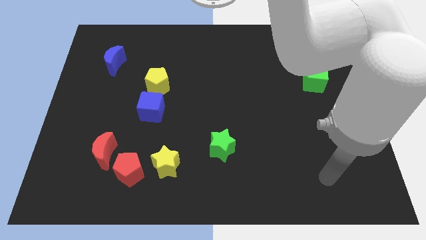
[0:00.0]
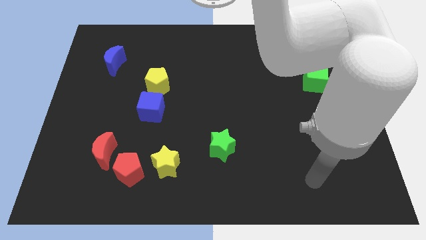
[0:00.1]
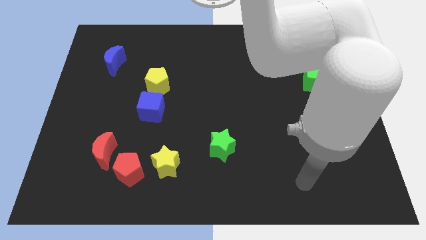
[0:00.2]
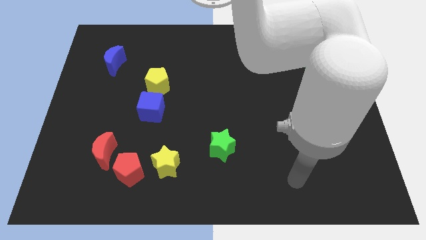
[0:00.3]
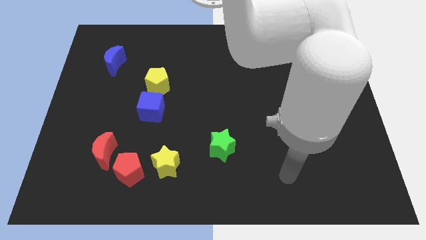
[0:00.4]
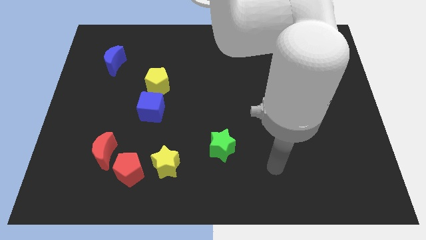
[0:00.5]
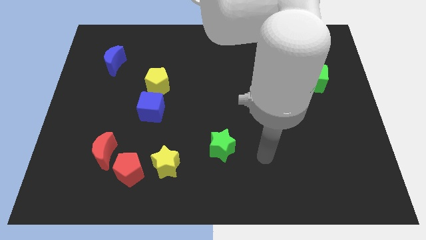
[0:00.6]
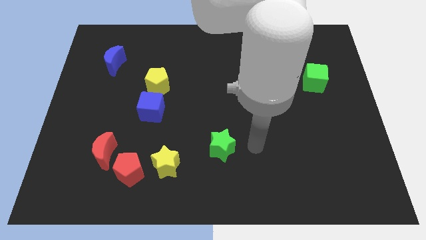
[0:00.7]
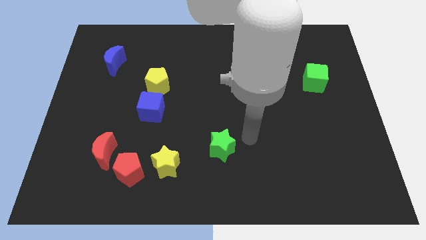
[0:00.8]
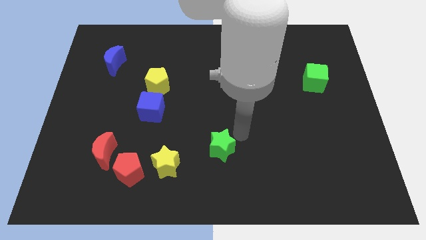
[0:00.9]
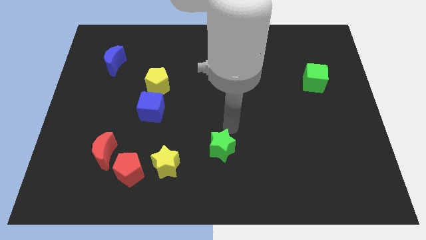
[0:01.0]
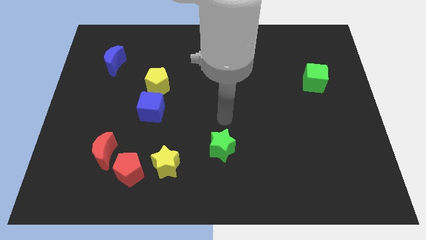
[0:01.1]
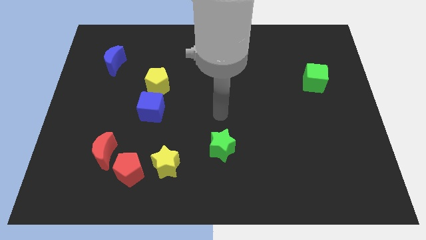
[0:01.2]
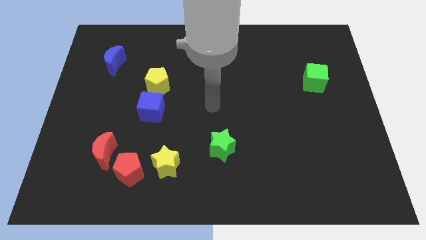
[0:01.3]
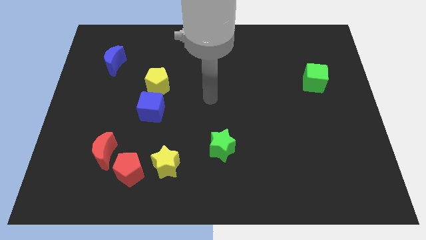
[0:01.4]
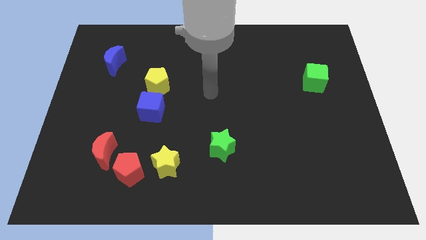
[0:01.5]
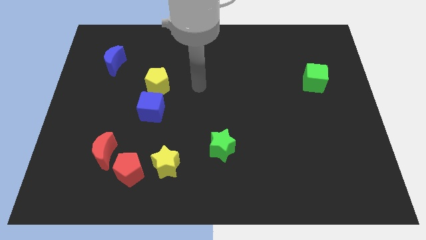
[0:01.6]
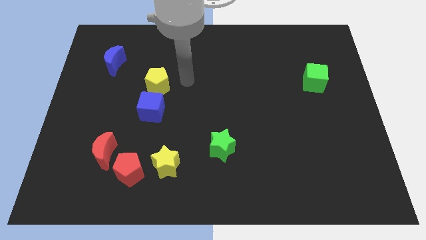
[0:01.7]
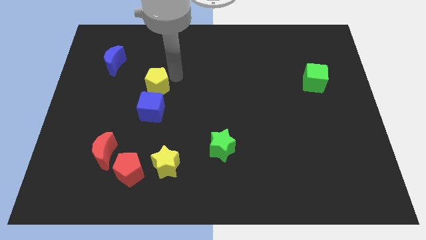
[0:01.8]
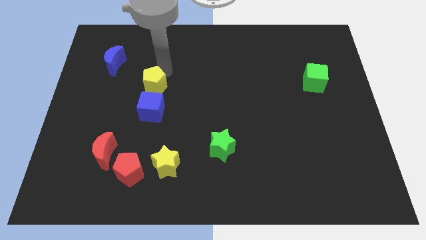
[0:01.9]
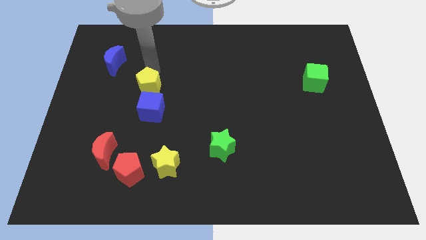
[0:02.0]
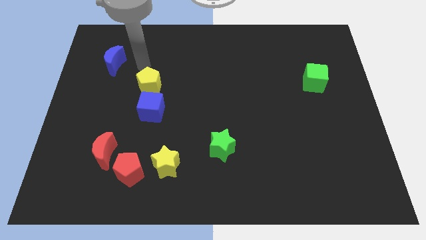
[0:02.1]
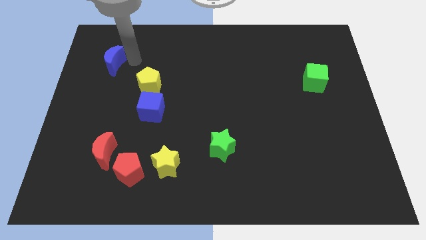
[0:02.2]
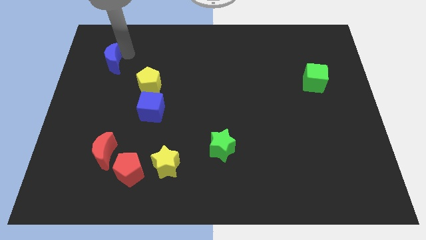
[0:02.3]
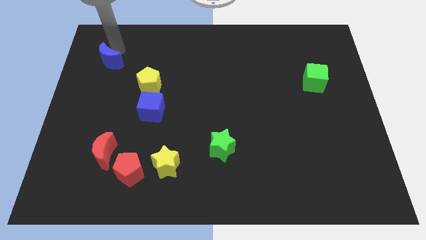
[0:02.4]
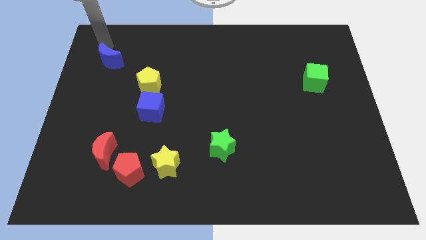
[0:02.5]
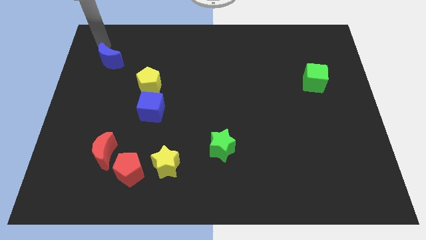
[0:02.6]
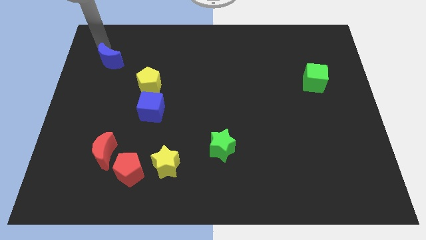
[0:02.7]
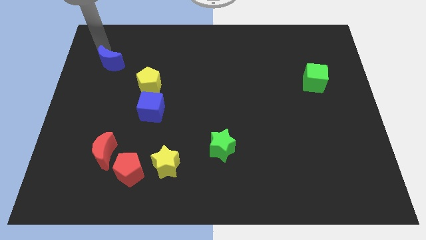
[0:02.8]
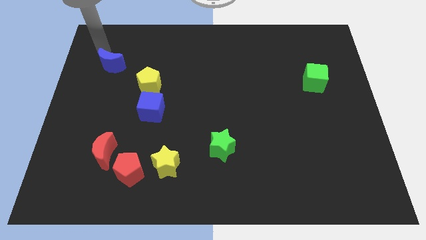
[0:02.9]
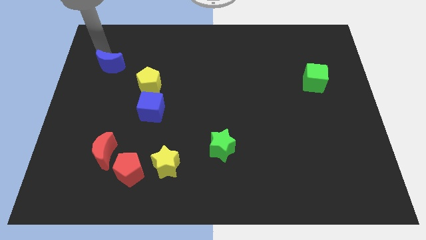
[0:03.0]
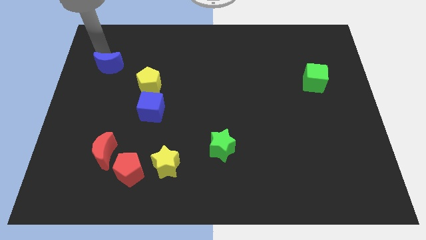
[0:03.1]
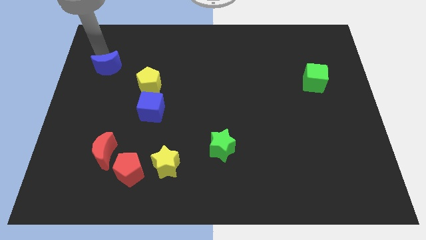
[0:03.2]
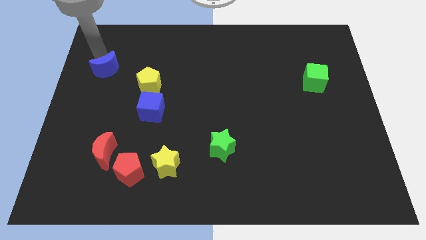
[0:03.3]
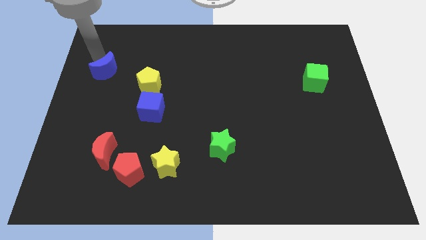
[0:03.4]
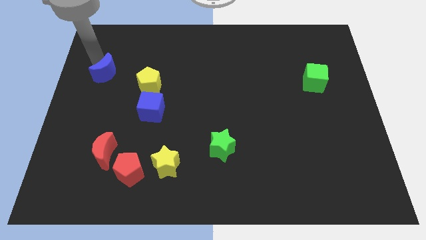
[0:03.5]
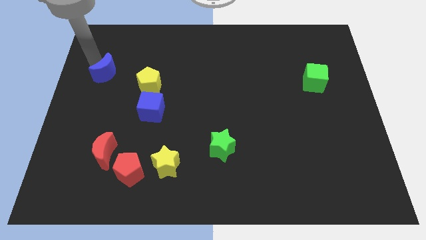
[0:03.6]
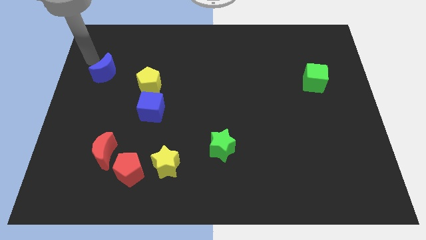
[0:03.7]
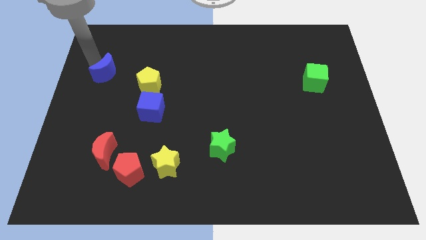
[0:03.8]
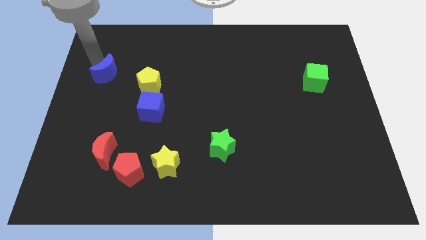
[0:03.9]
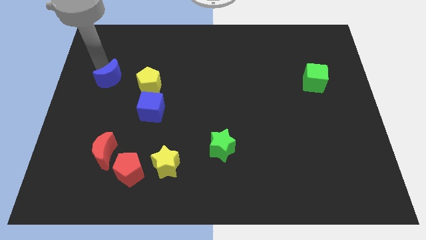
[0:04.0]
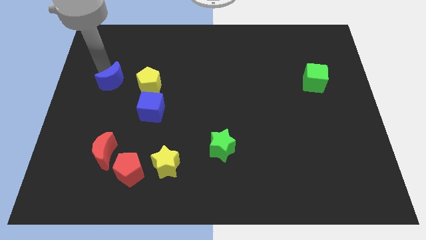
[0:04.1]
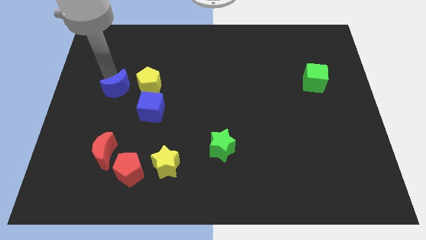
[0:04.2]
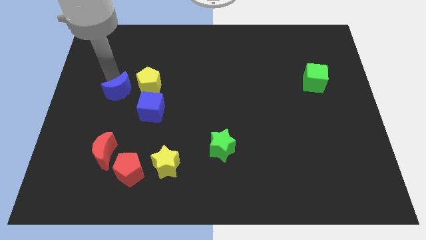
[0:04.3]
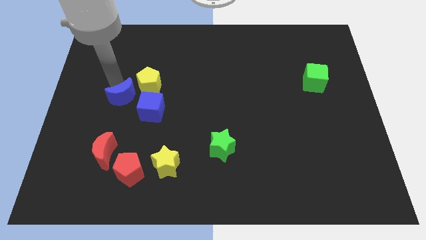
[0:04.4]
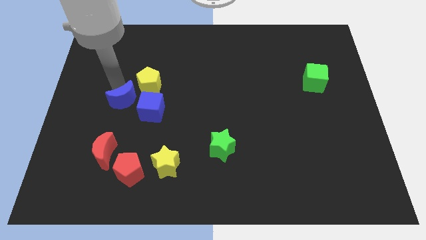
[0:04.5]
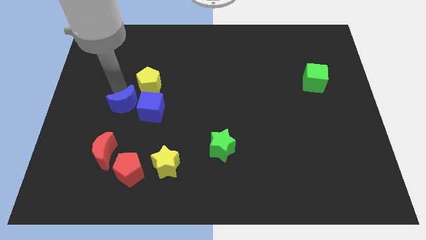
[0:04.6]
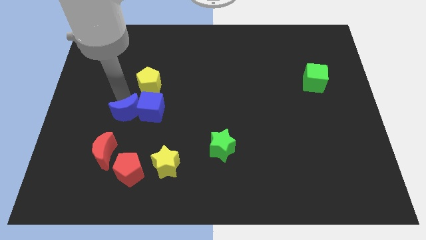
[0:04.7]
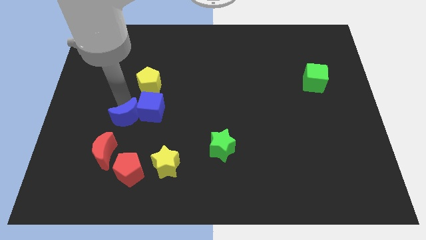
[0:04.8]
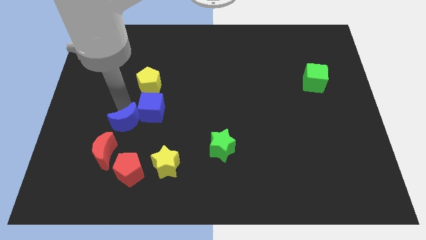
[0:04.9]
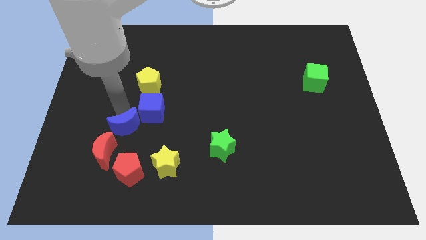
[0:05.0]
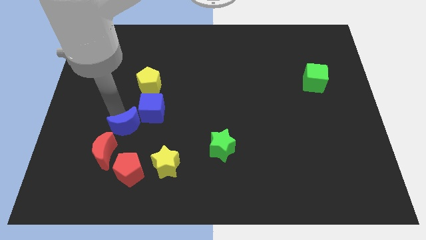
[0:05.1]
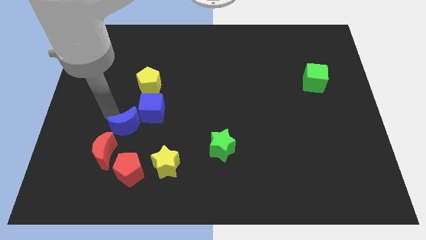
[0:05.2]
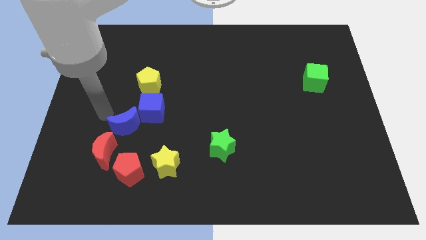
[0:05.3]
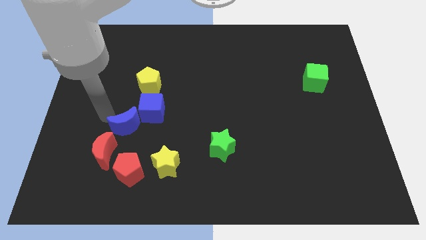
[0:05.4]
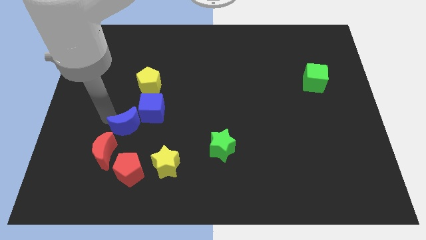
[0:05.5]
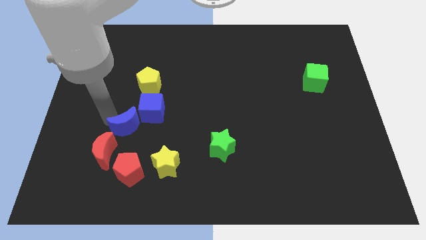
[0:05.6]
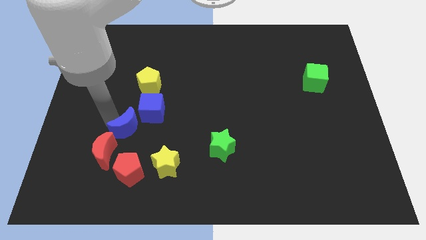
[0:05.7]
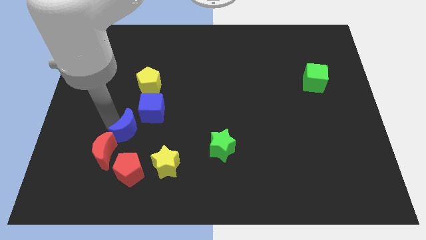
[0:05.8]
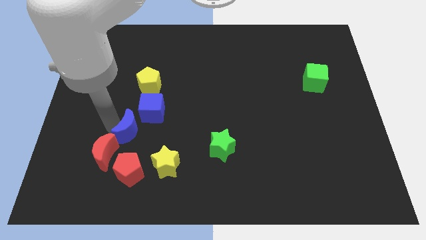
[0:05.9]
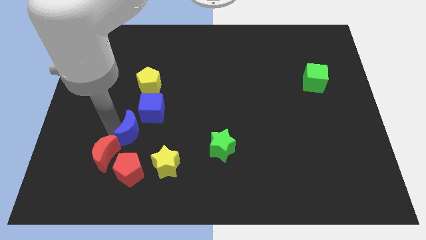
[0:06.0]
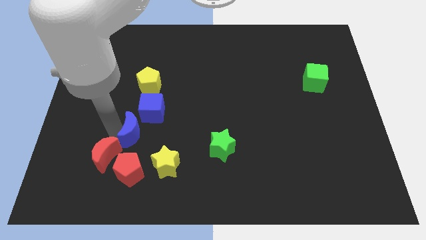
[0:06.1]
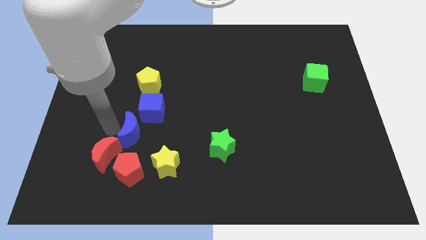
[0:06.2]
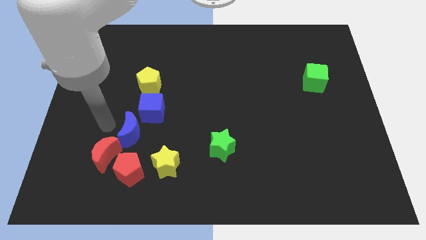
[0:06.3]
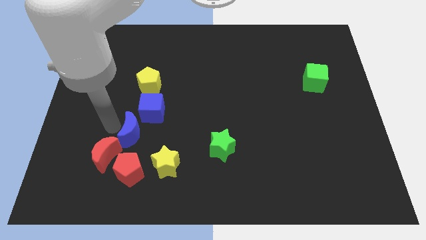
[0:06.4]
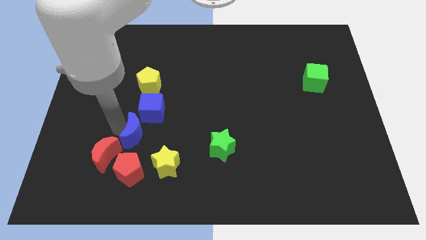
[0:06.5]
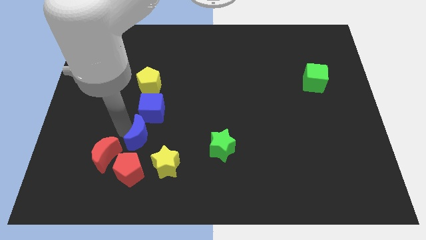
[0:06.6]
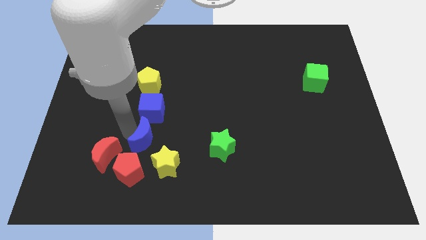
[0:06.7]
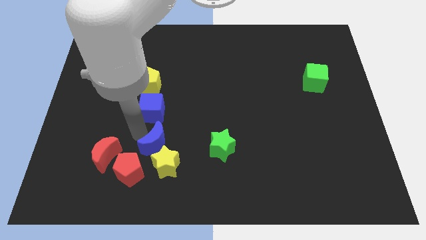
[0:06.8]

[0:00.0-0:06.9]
move the blue moon close to the yellow star

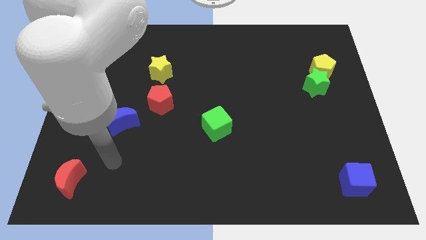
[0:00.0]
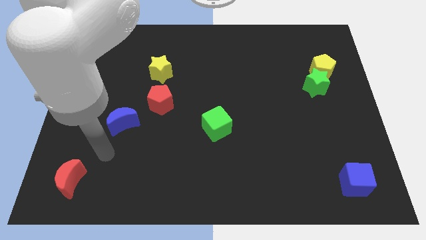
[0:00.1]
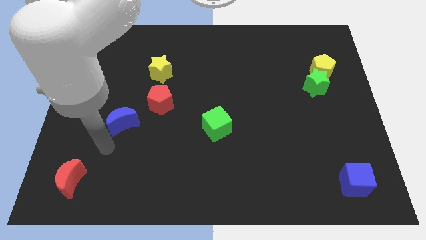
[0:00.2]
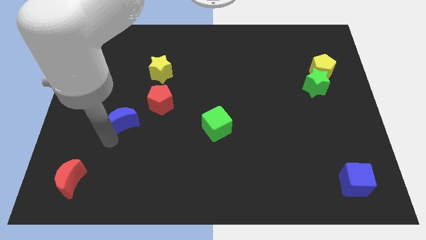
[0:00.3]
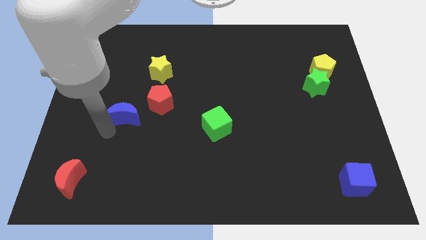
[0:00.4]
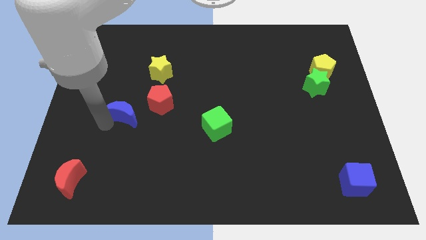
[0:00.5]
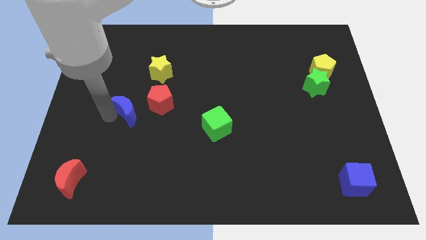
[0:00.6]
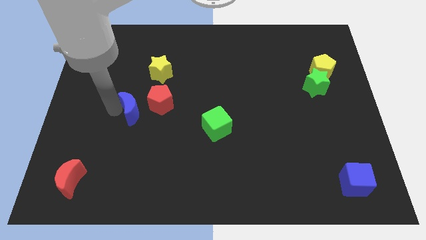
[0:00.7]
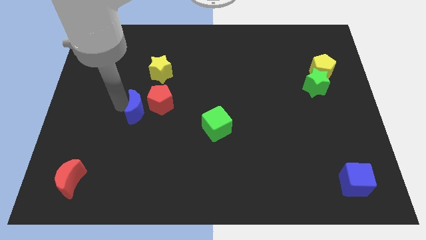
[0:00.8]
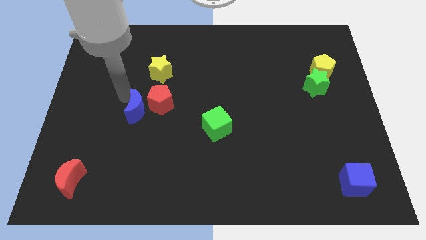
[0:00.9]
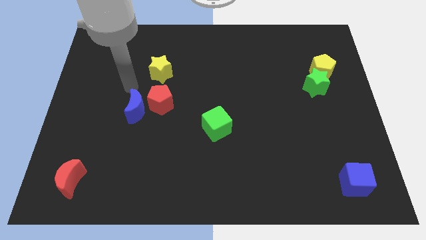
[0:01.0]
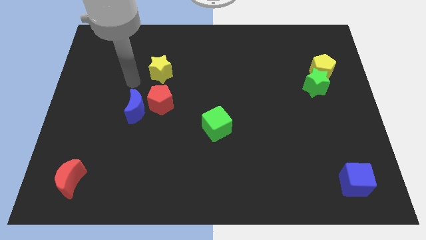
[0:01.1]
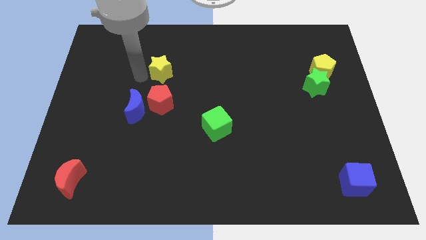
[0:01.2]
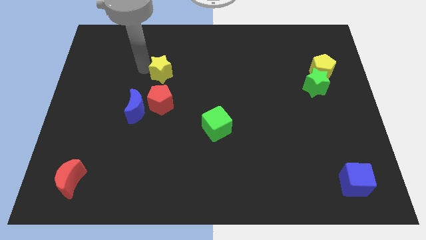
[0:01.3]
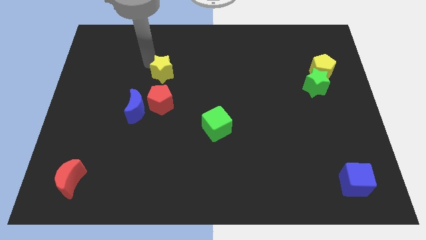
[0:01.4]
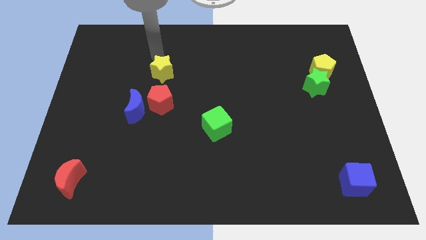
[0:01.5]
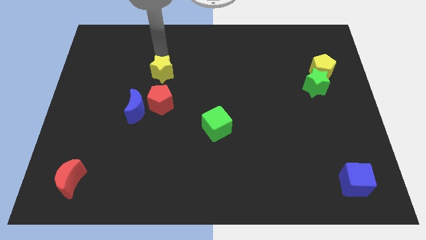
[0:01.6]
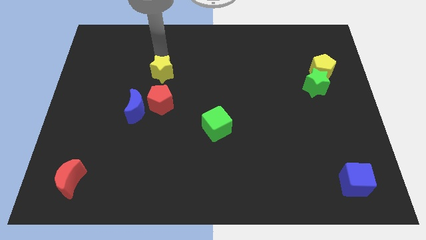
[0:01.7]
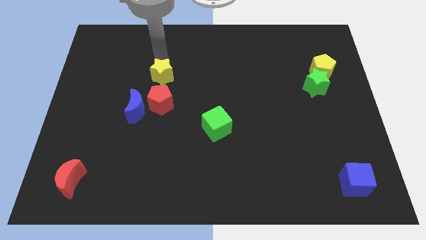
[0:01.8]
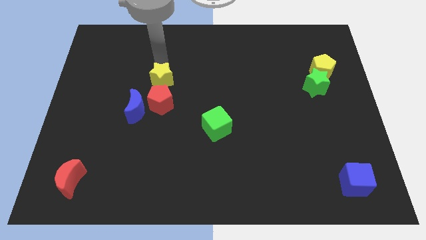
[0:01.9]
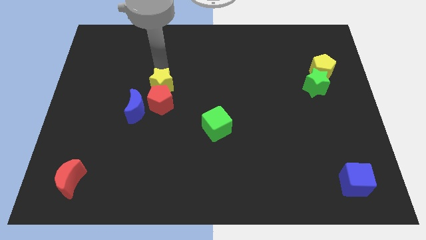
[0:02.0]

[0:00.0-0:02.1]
push the yellow star close to the red pentagon
